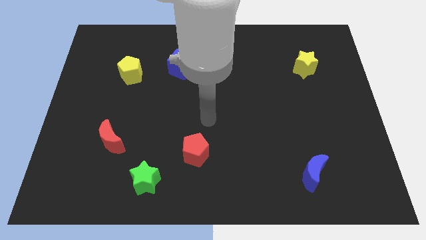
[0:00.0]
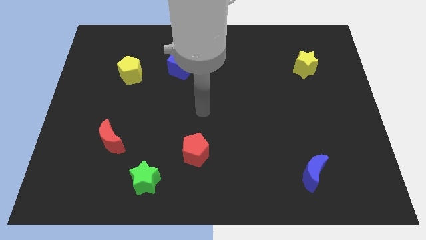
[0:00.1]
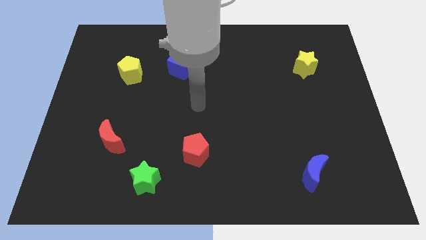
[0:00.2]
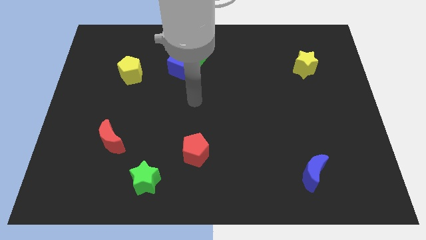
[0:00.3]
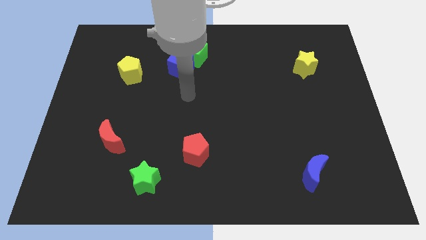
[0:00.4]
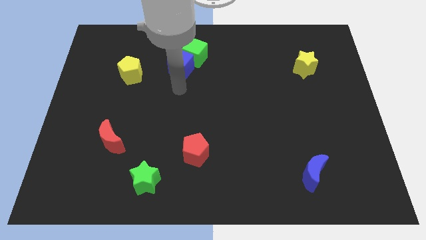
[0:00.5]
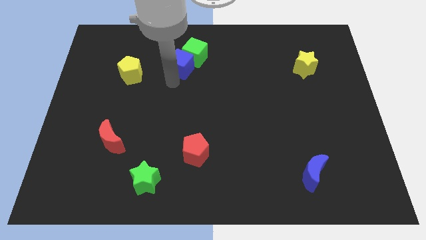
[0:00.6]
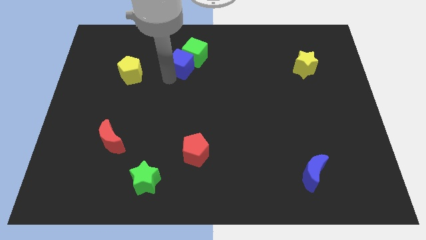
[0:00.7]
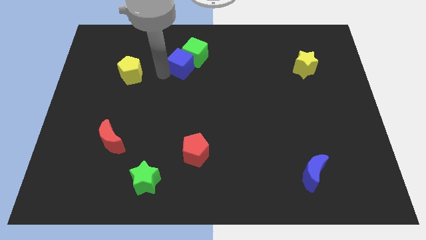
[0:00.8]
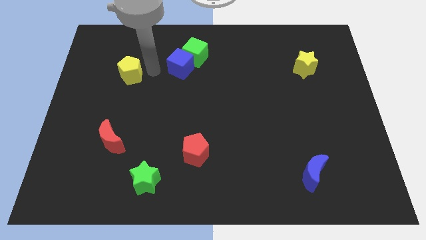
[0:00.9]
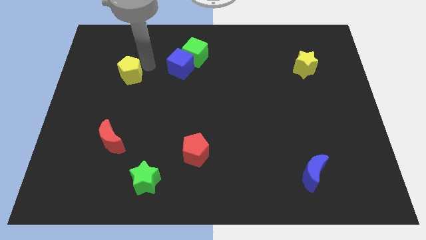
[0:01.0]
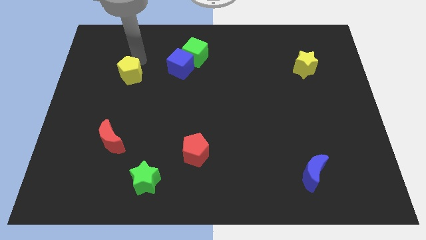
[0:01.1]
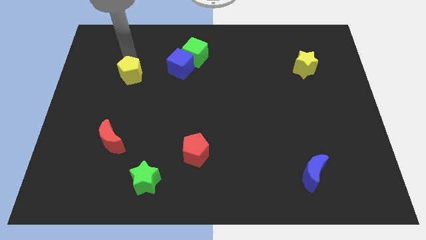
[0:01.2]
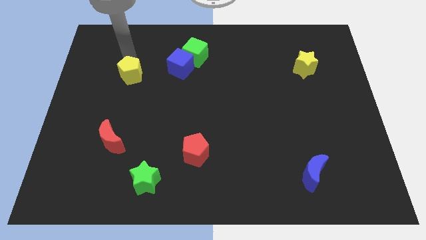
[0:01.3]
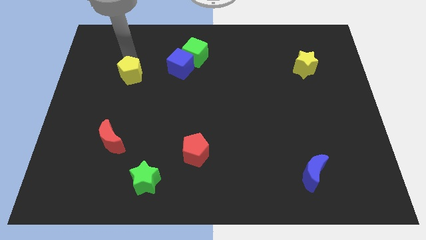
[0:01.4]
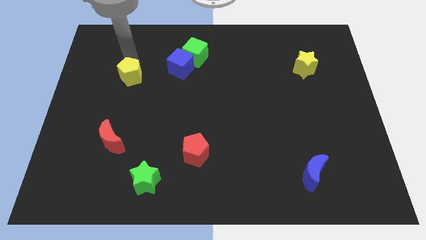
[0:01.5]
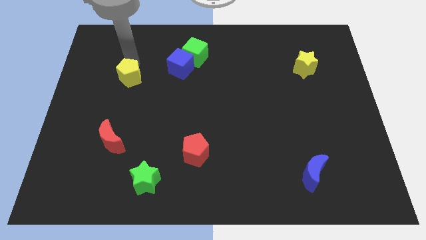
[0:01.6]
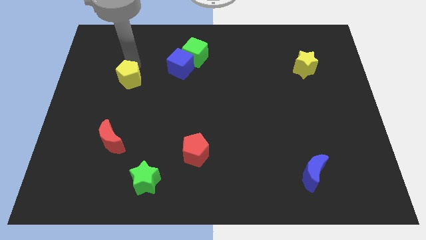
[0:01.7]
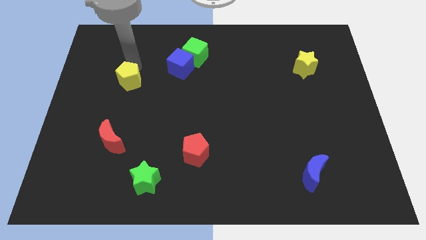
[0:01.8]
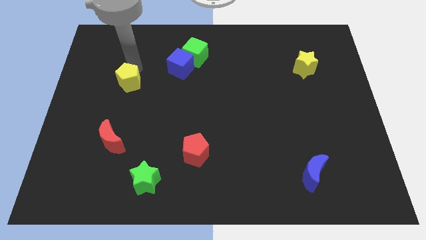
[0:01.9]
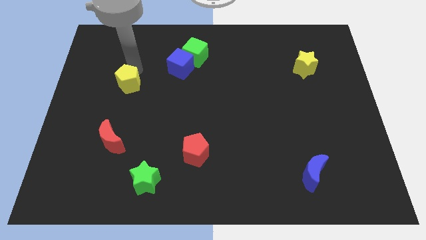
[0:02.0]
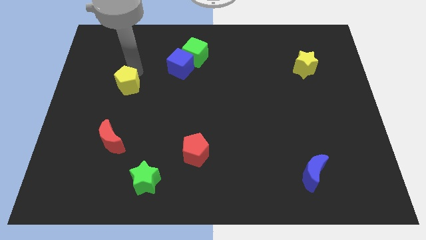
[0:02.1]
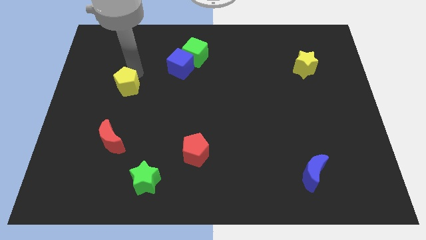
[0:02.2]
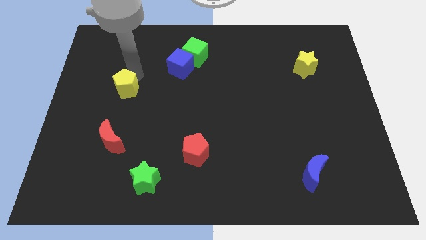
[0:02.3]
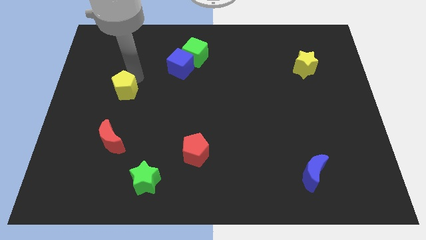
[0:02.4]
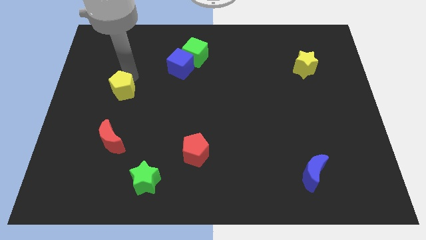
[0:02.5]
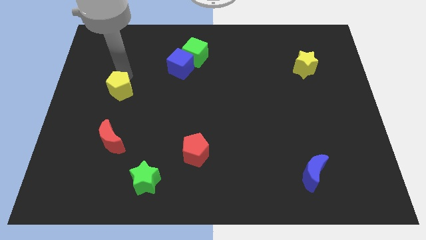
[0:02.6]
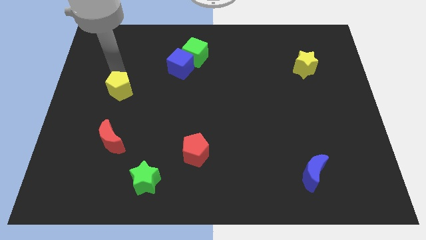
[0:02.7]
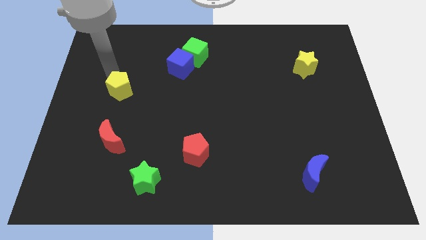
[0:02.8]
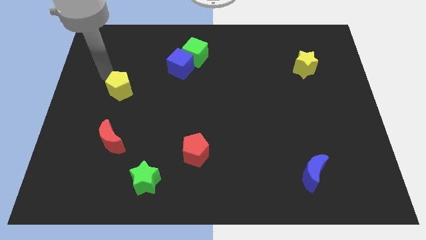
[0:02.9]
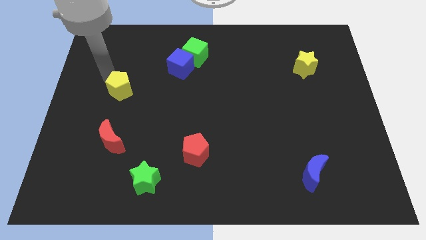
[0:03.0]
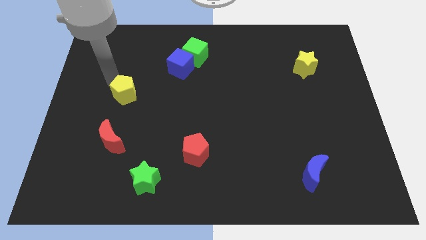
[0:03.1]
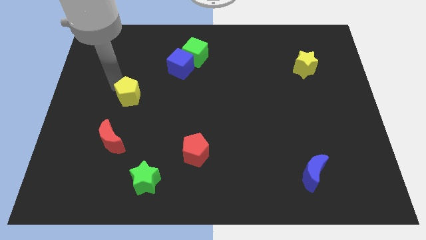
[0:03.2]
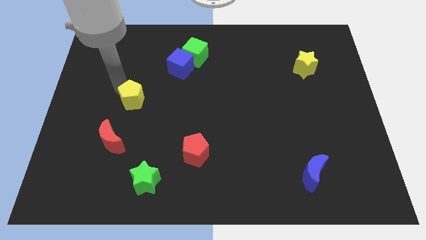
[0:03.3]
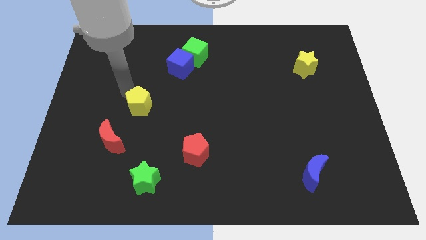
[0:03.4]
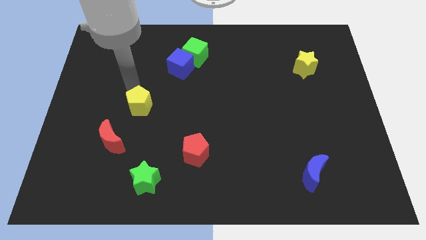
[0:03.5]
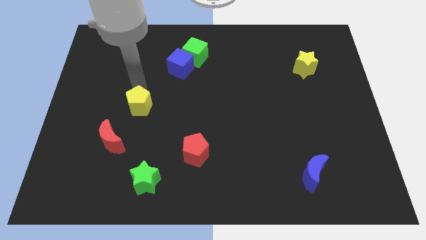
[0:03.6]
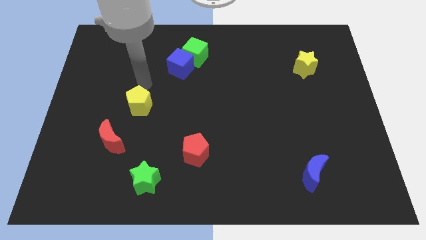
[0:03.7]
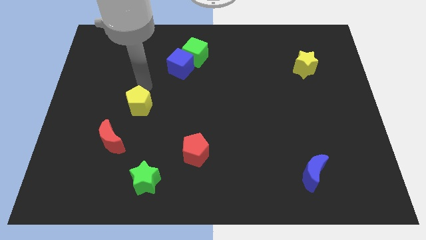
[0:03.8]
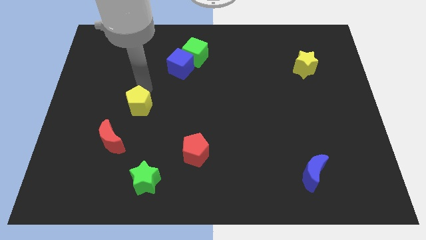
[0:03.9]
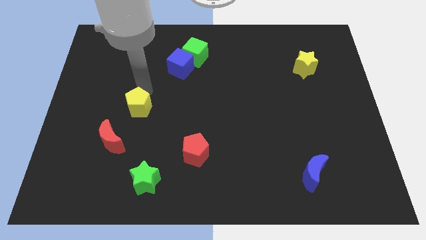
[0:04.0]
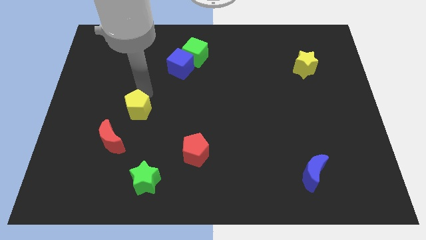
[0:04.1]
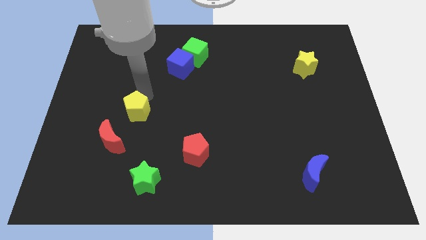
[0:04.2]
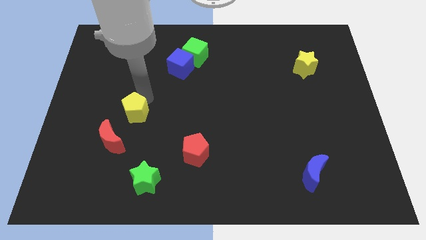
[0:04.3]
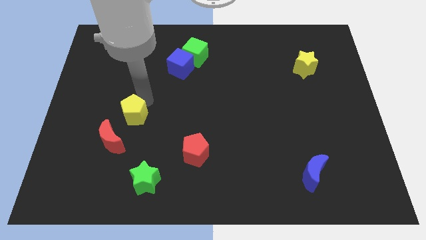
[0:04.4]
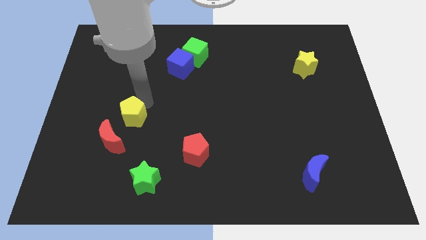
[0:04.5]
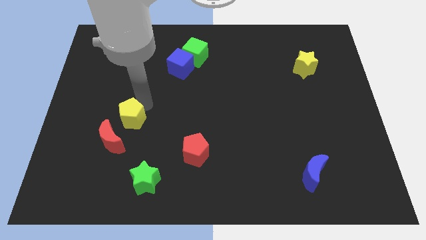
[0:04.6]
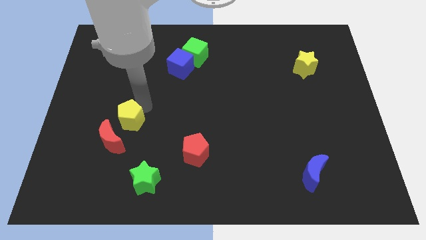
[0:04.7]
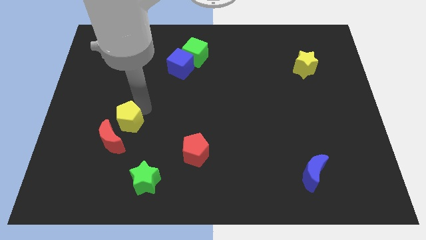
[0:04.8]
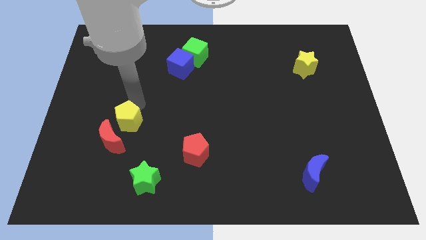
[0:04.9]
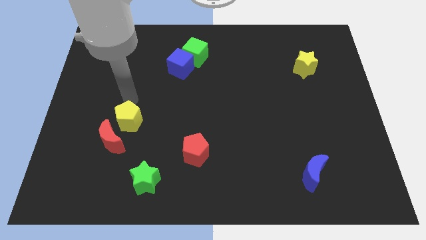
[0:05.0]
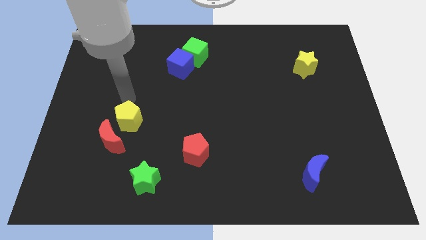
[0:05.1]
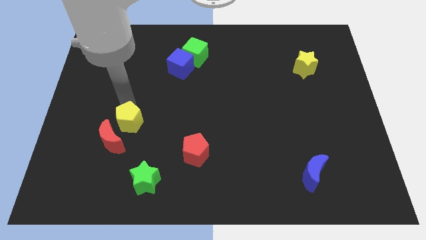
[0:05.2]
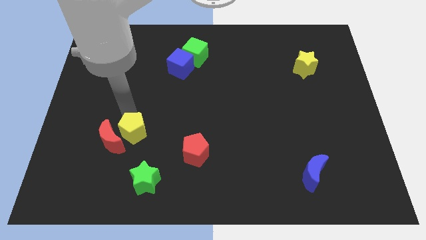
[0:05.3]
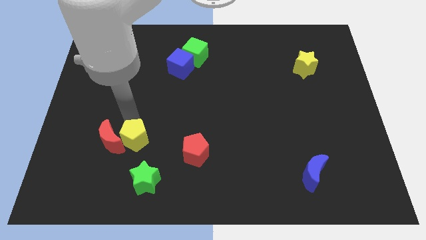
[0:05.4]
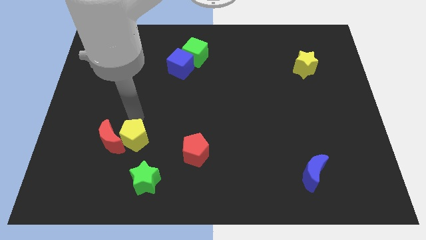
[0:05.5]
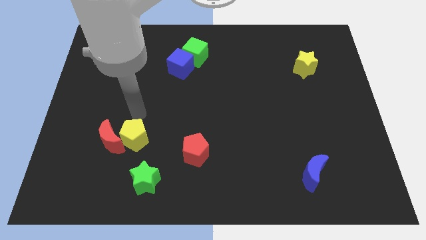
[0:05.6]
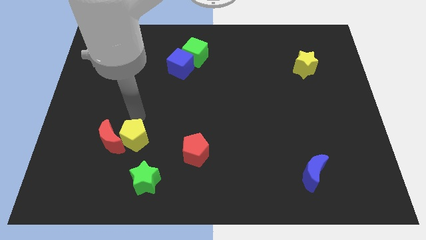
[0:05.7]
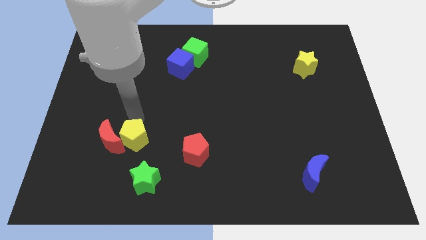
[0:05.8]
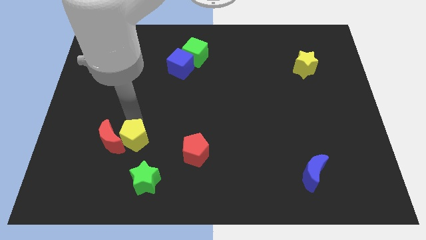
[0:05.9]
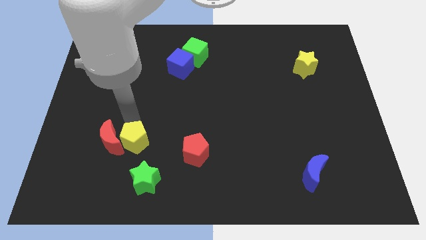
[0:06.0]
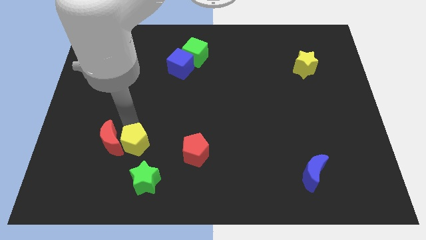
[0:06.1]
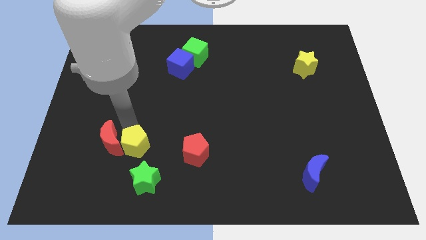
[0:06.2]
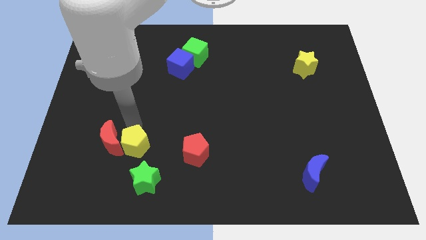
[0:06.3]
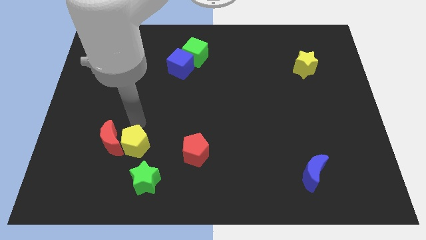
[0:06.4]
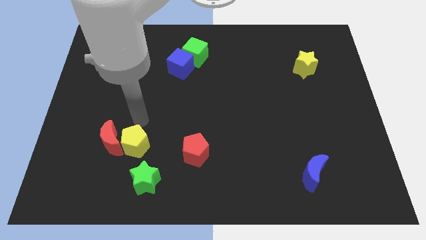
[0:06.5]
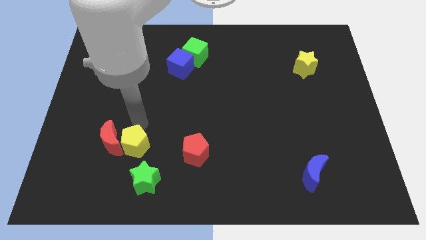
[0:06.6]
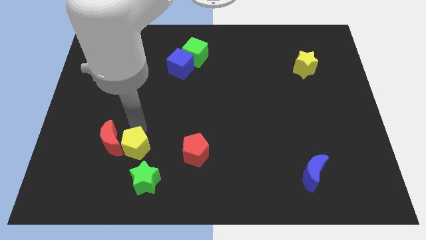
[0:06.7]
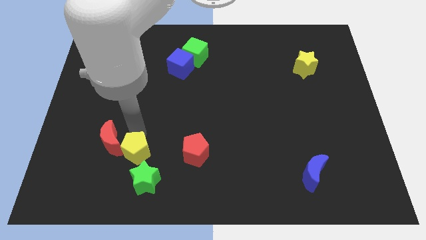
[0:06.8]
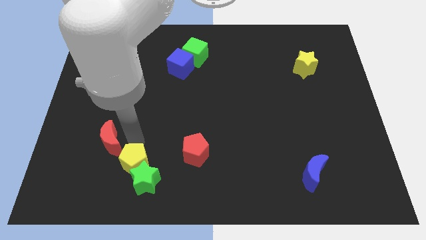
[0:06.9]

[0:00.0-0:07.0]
push the yellow pentagon close to the green star
